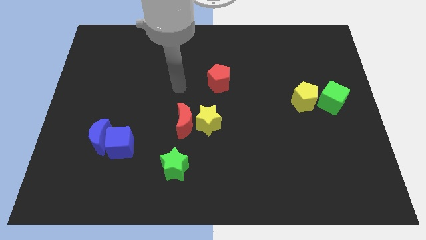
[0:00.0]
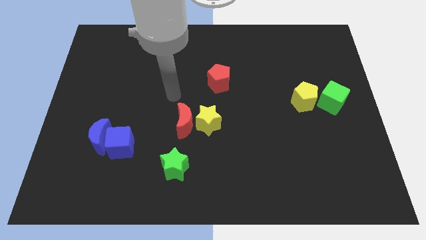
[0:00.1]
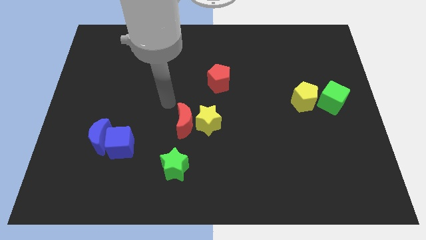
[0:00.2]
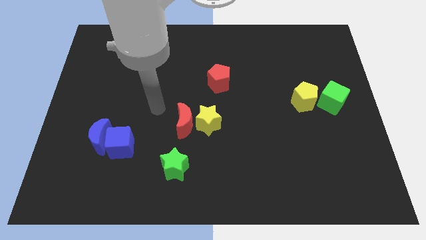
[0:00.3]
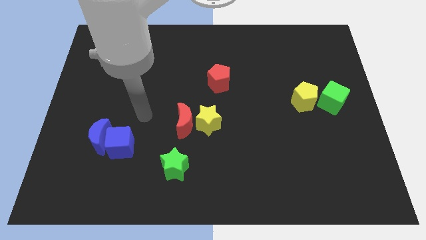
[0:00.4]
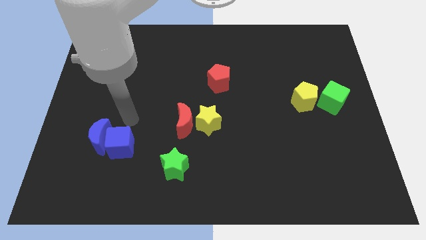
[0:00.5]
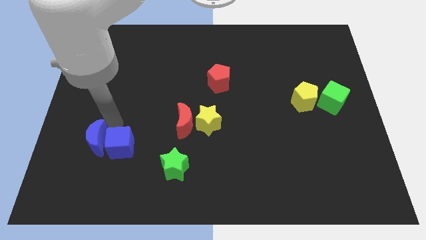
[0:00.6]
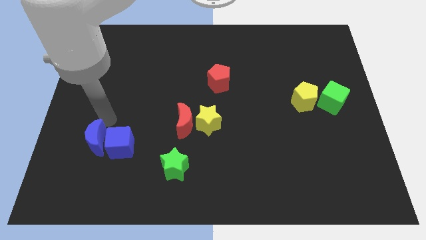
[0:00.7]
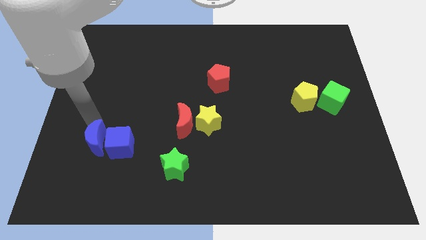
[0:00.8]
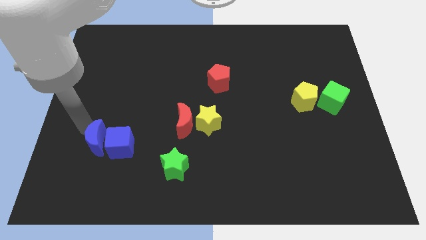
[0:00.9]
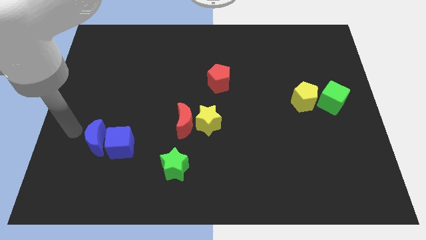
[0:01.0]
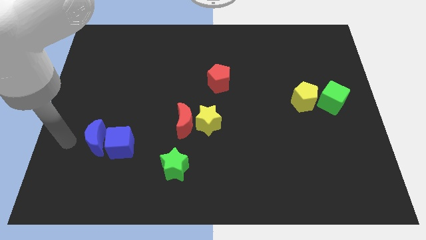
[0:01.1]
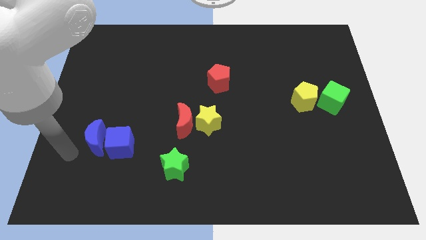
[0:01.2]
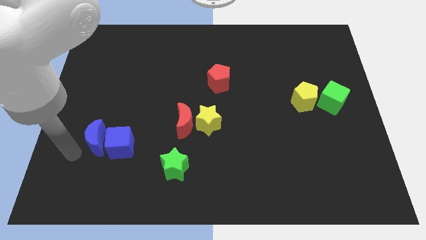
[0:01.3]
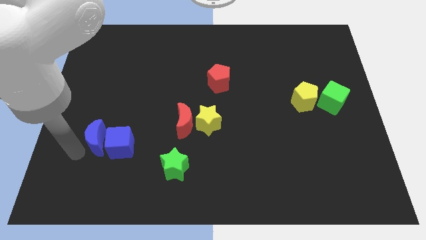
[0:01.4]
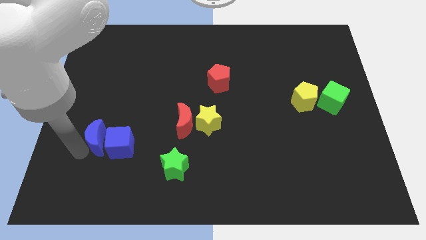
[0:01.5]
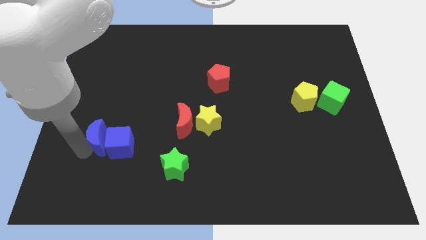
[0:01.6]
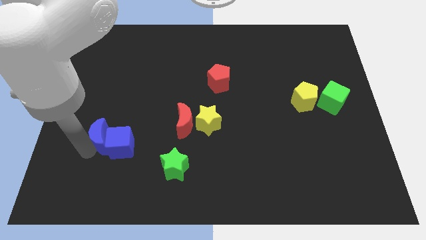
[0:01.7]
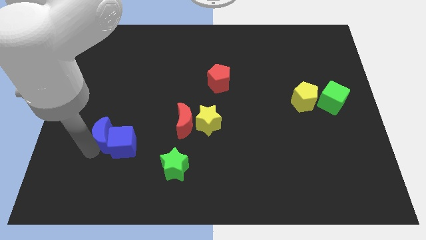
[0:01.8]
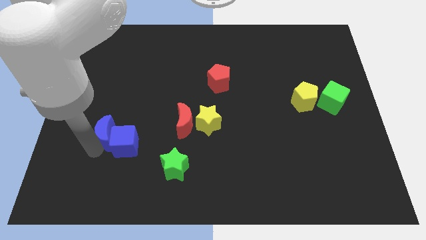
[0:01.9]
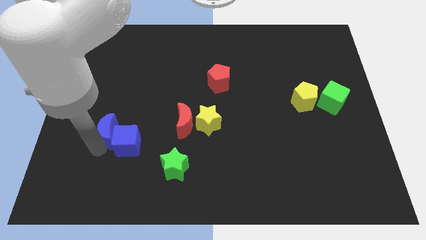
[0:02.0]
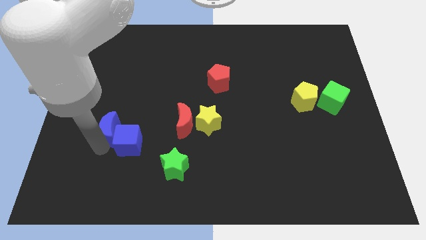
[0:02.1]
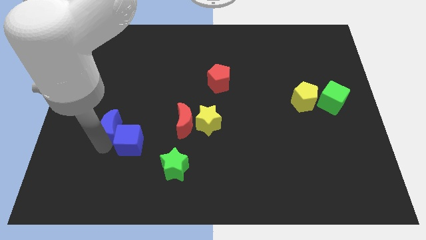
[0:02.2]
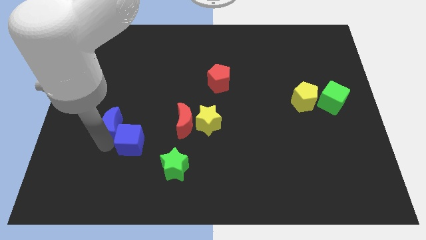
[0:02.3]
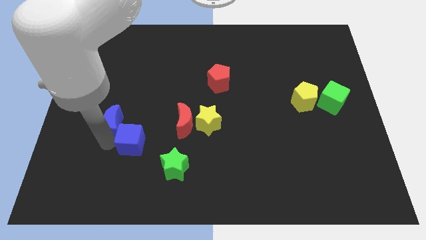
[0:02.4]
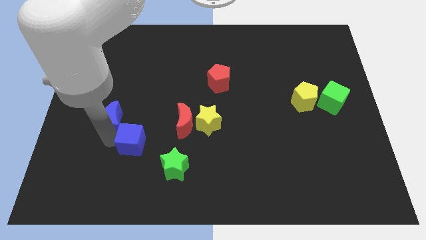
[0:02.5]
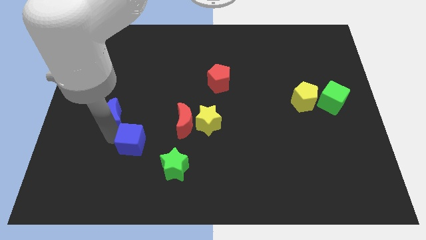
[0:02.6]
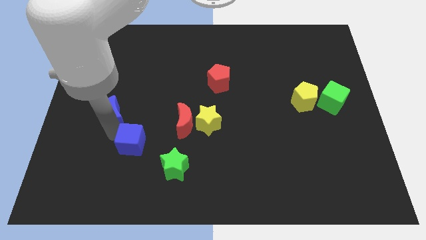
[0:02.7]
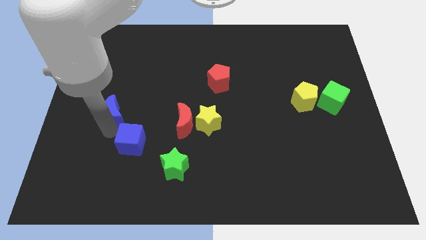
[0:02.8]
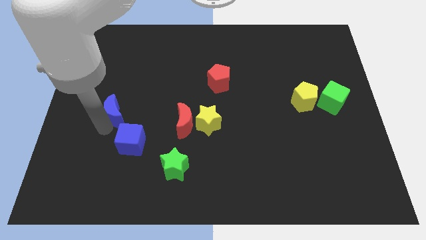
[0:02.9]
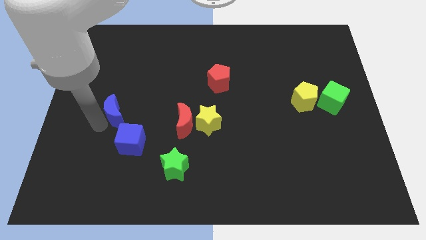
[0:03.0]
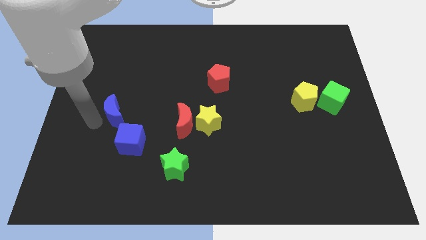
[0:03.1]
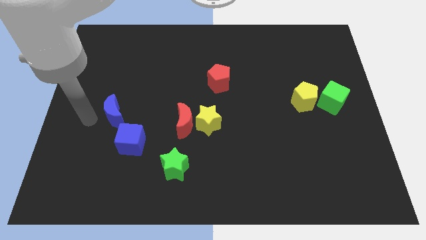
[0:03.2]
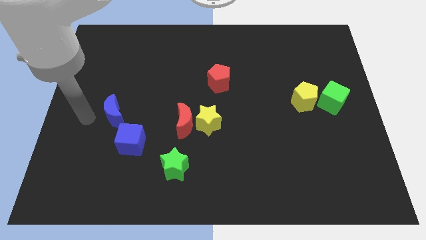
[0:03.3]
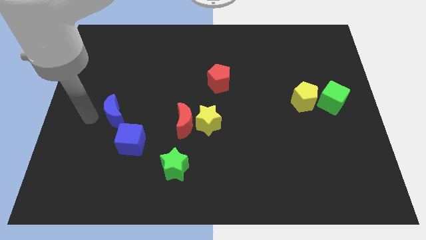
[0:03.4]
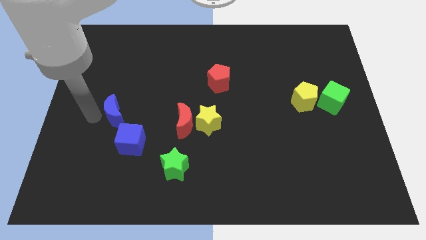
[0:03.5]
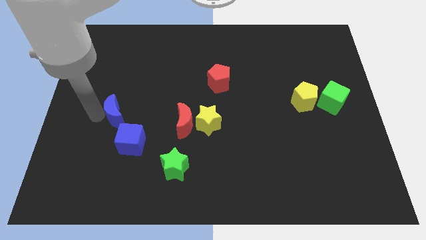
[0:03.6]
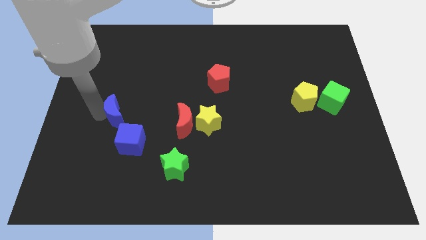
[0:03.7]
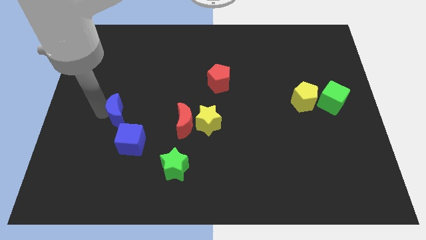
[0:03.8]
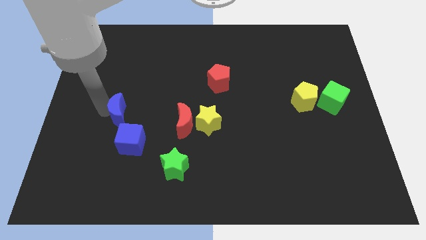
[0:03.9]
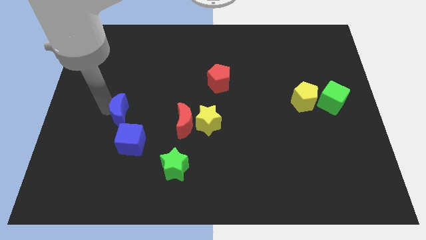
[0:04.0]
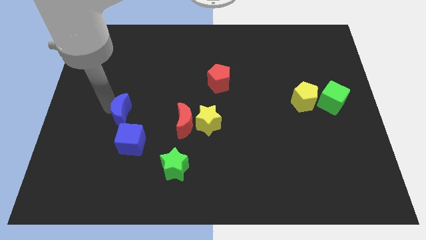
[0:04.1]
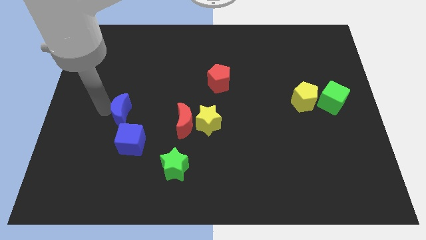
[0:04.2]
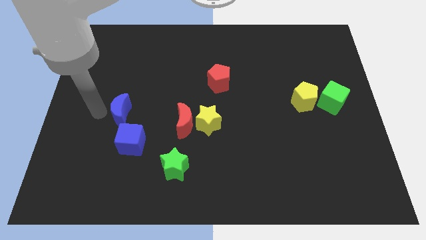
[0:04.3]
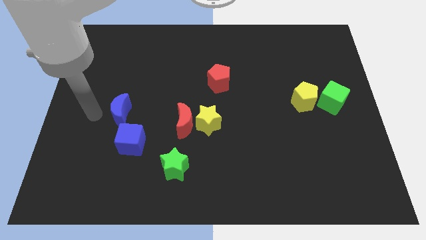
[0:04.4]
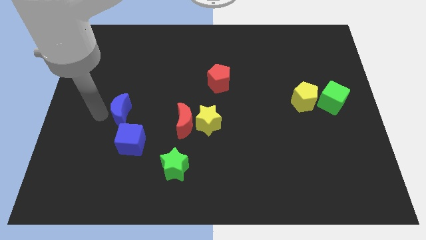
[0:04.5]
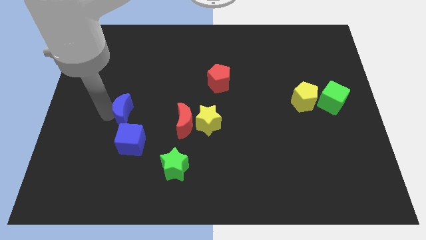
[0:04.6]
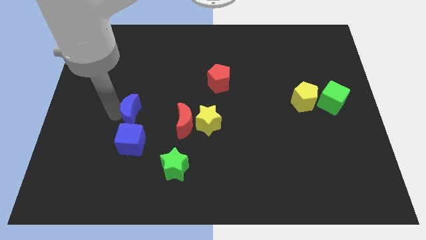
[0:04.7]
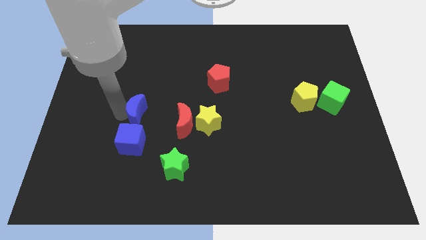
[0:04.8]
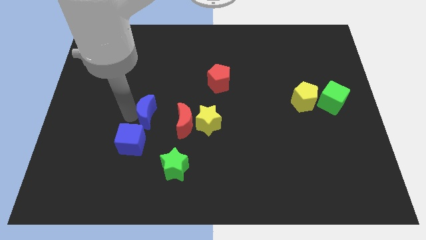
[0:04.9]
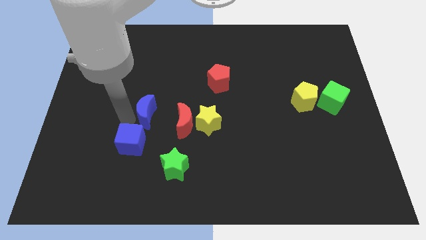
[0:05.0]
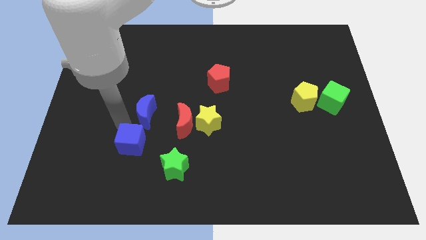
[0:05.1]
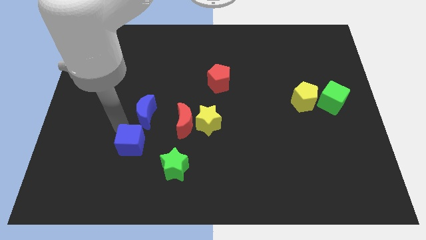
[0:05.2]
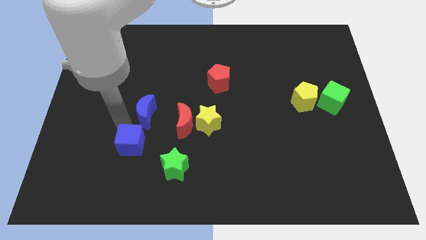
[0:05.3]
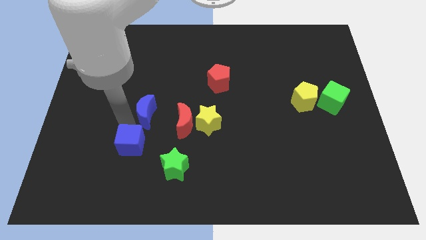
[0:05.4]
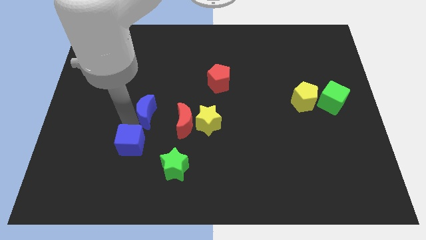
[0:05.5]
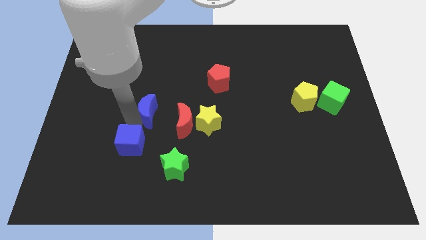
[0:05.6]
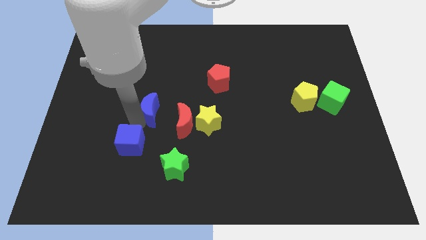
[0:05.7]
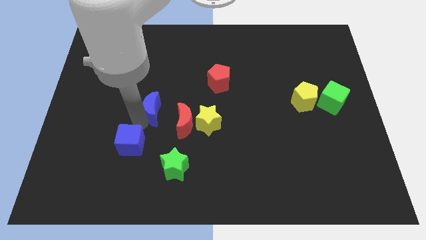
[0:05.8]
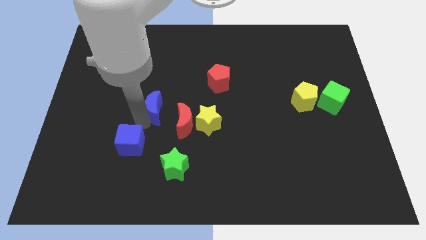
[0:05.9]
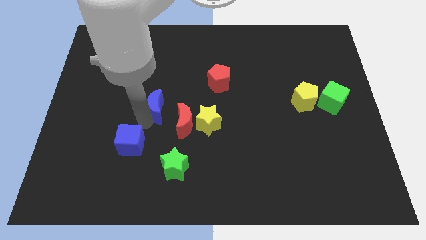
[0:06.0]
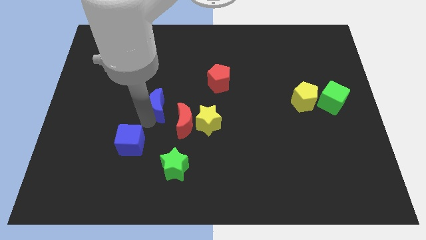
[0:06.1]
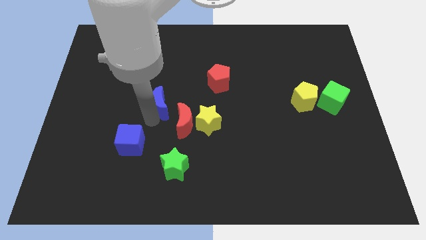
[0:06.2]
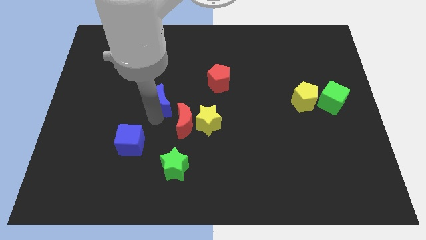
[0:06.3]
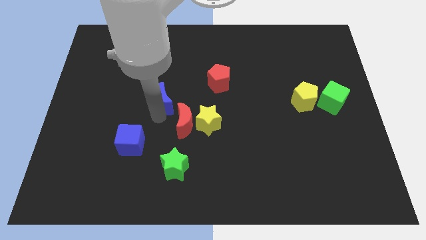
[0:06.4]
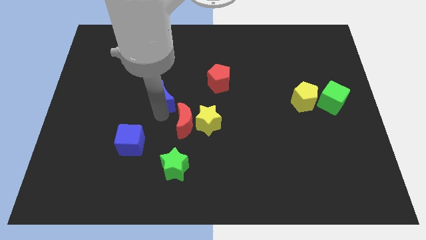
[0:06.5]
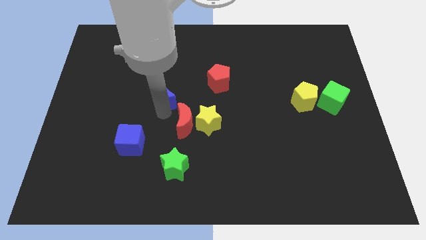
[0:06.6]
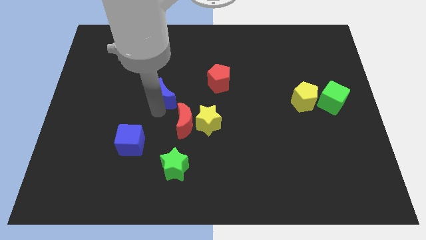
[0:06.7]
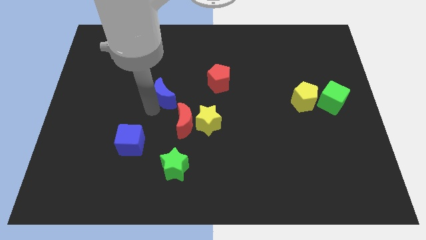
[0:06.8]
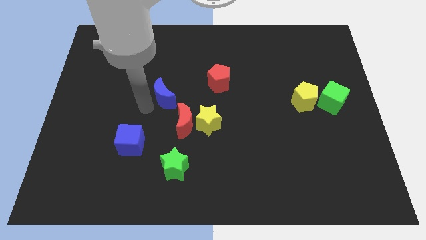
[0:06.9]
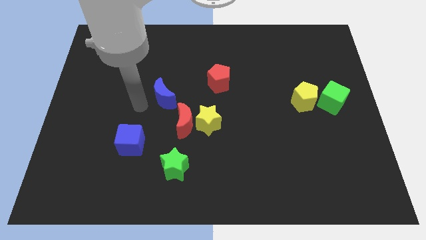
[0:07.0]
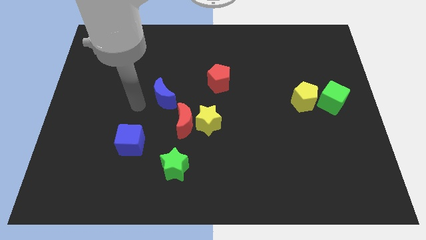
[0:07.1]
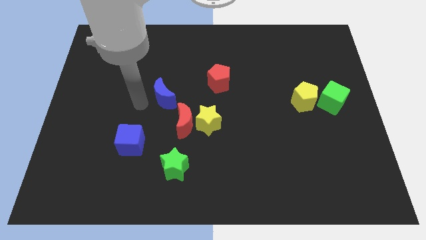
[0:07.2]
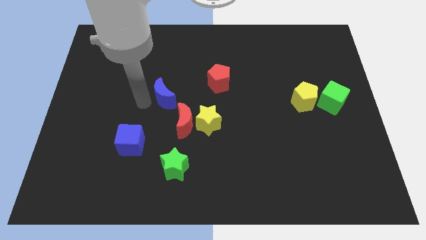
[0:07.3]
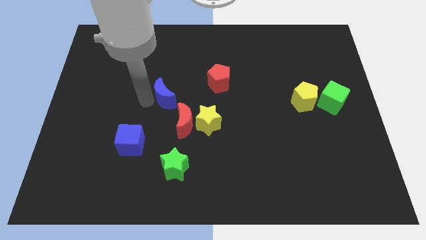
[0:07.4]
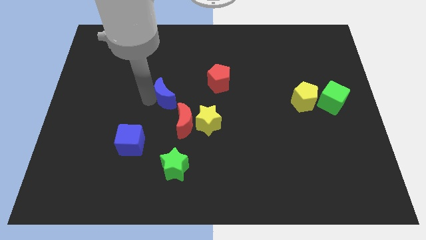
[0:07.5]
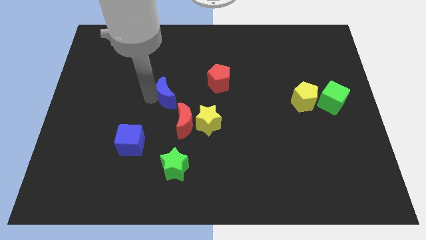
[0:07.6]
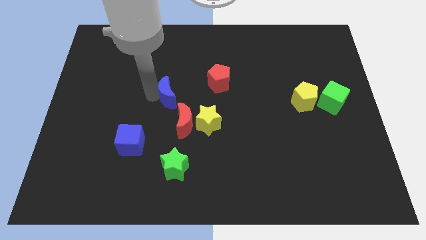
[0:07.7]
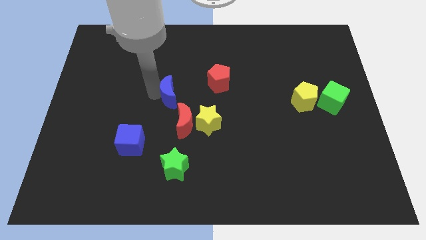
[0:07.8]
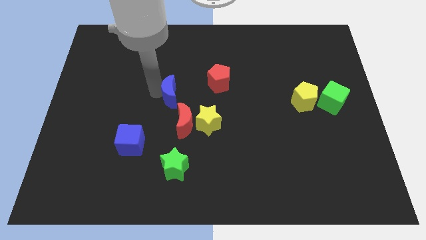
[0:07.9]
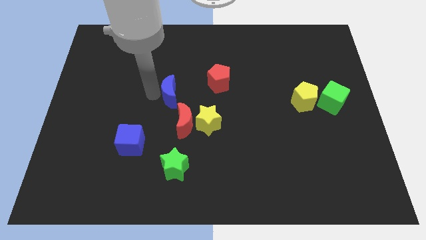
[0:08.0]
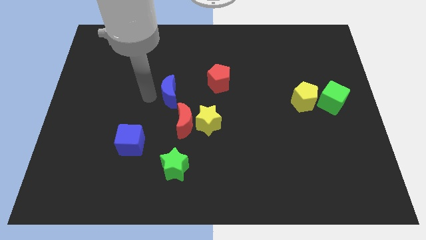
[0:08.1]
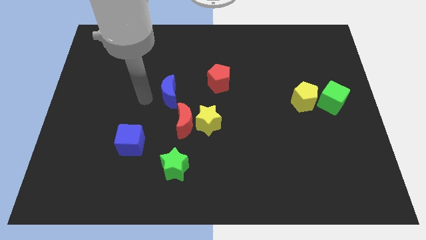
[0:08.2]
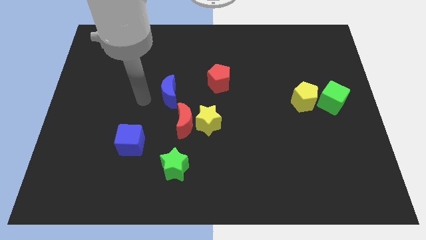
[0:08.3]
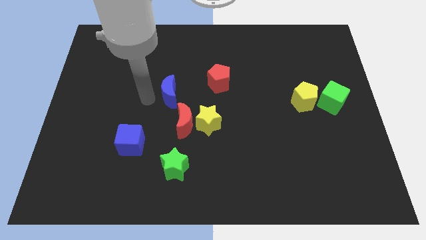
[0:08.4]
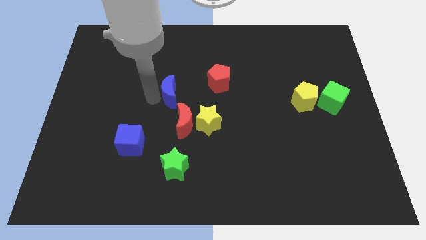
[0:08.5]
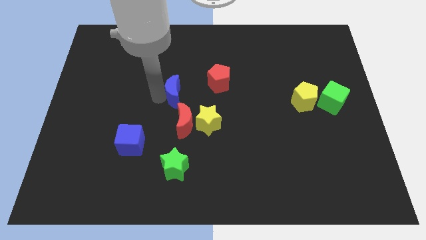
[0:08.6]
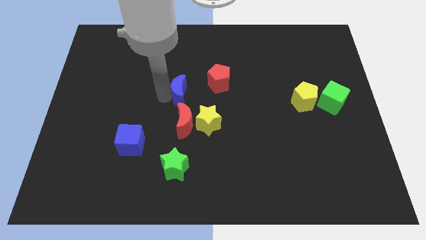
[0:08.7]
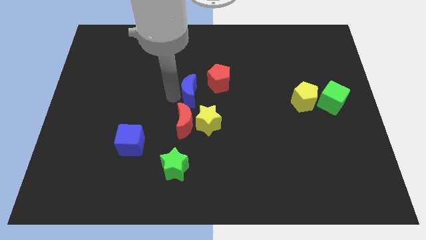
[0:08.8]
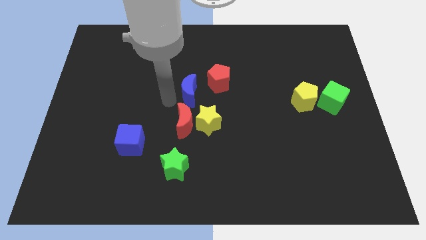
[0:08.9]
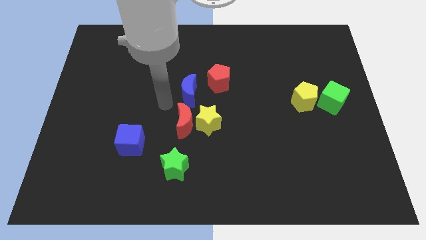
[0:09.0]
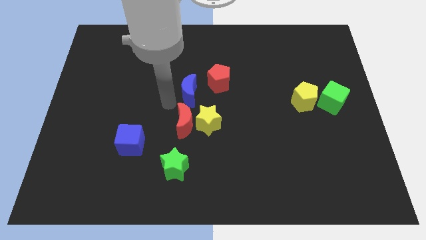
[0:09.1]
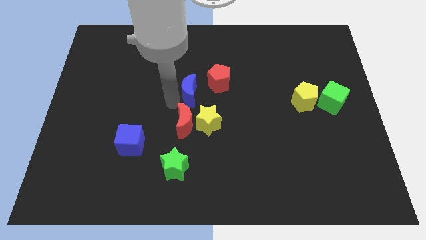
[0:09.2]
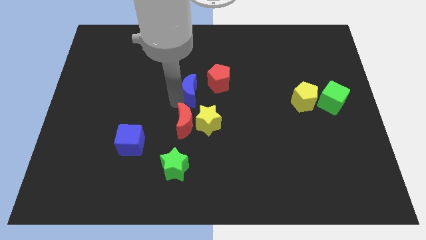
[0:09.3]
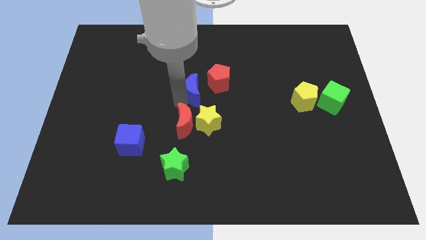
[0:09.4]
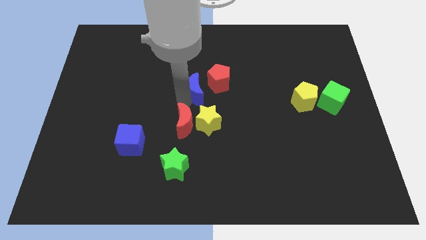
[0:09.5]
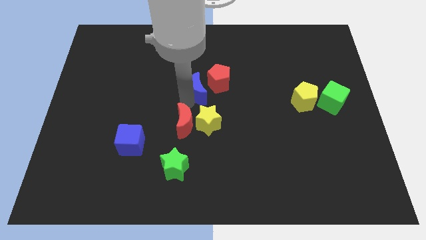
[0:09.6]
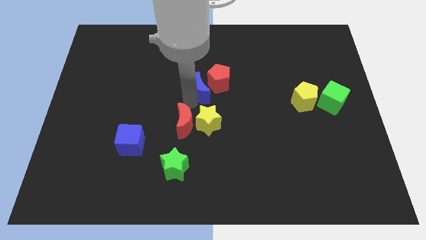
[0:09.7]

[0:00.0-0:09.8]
push the blue moon next to the red pentagon
